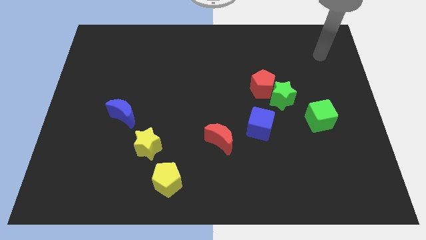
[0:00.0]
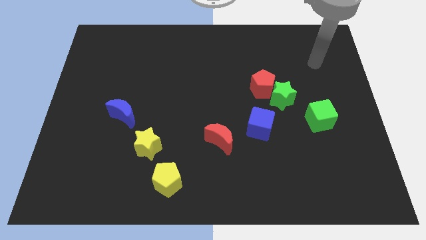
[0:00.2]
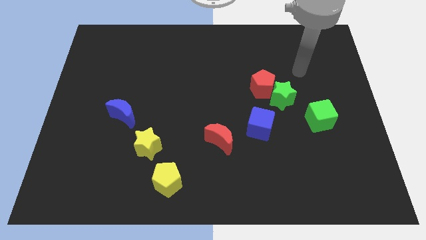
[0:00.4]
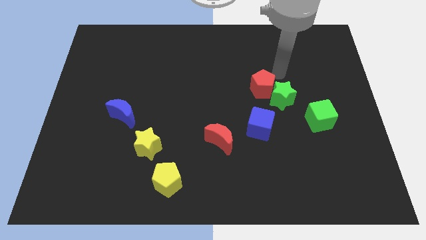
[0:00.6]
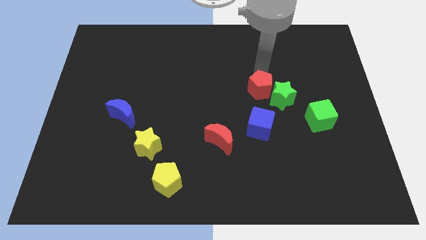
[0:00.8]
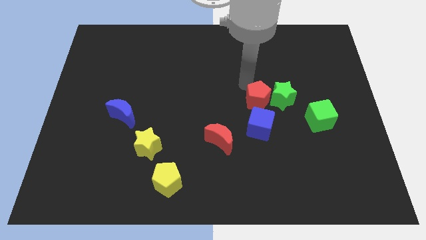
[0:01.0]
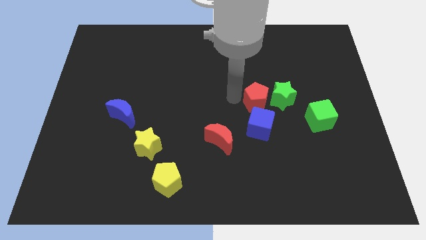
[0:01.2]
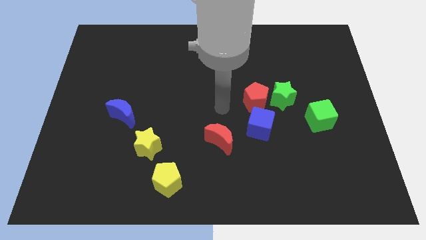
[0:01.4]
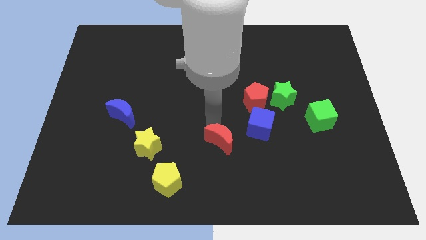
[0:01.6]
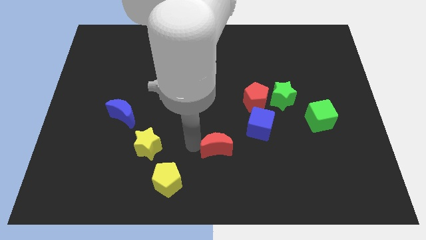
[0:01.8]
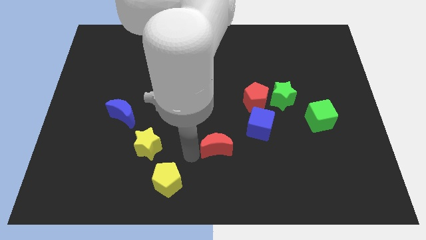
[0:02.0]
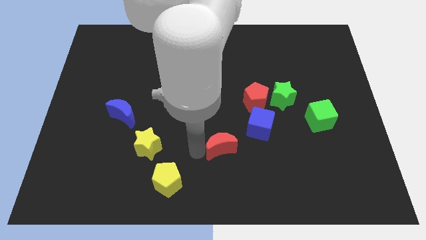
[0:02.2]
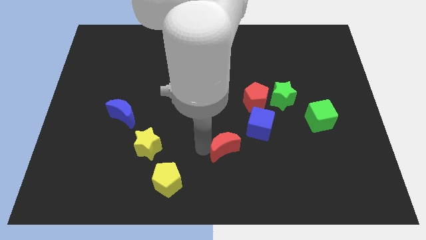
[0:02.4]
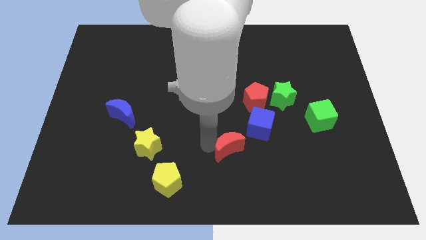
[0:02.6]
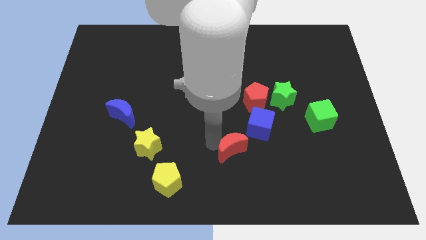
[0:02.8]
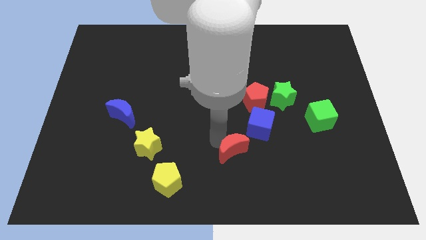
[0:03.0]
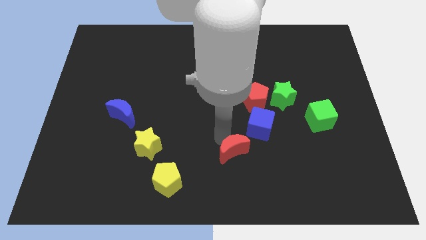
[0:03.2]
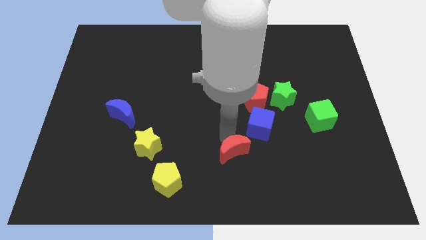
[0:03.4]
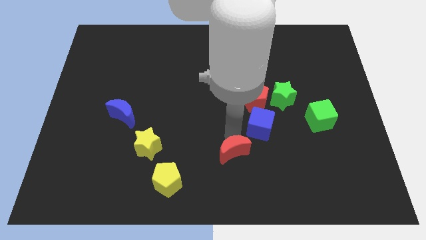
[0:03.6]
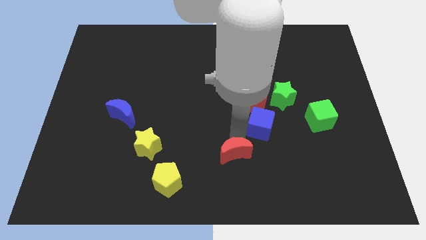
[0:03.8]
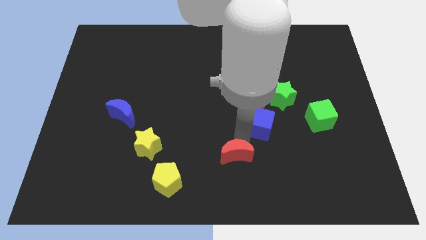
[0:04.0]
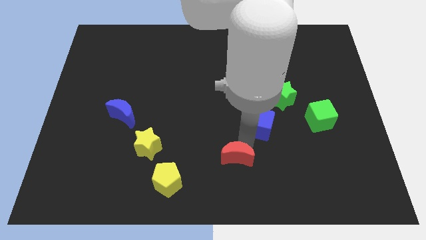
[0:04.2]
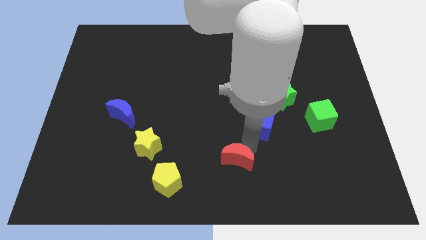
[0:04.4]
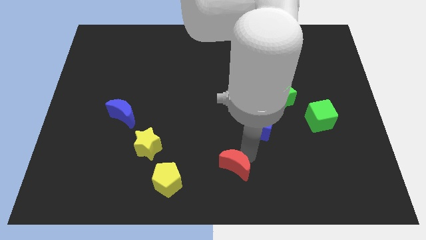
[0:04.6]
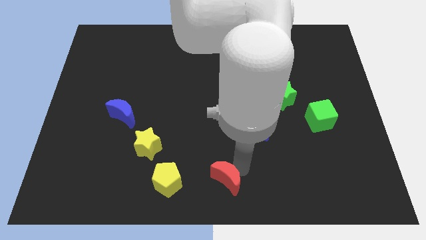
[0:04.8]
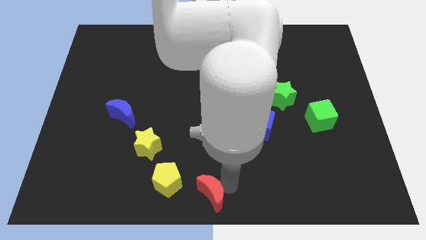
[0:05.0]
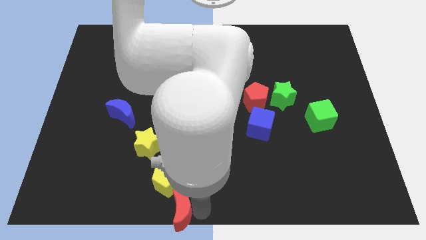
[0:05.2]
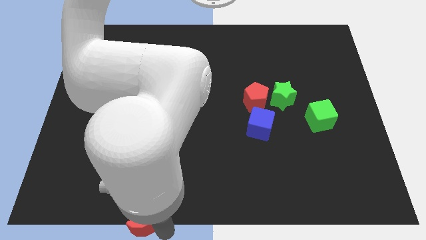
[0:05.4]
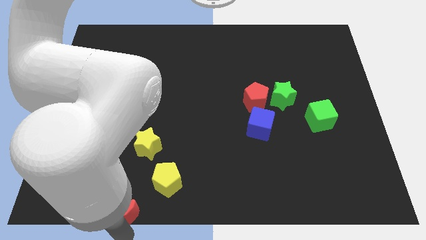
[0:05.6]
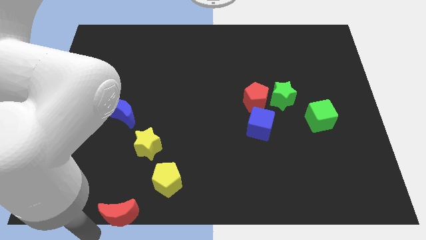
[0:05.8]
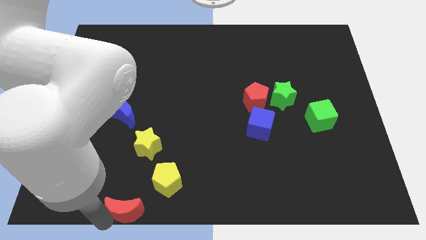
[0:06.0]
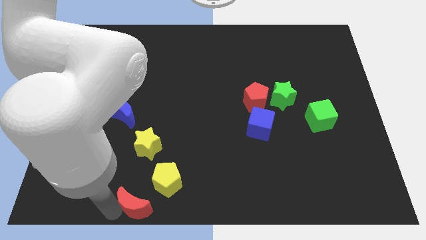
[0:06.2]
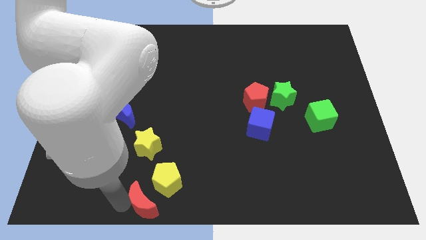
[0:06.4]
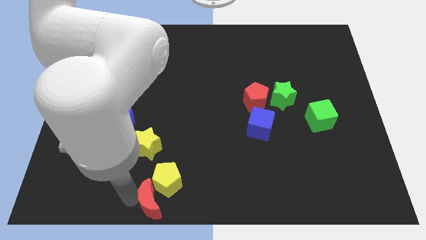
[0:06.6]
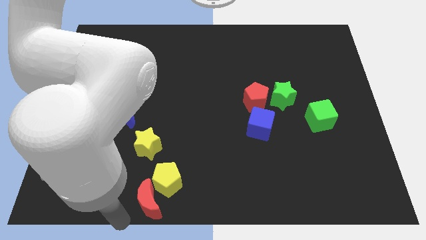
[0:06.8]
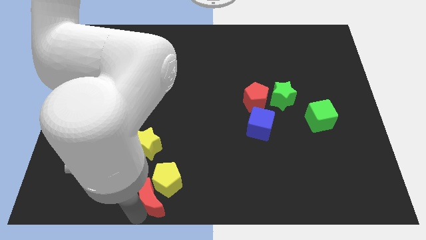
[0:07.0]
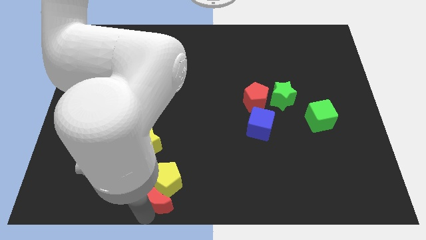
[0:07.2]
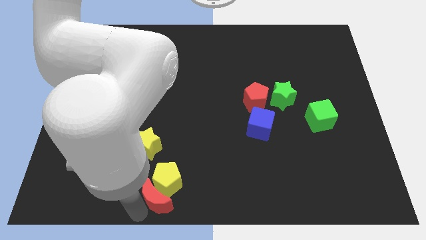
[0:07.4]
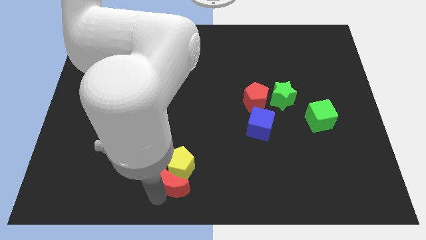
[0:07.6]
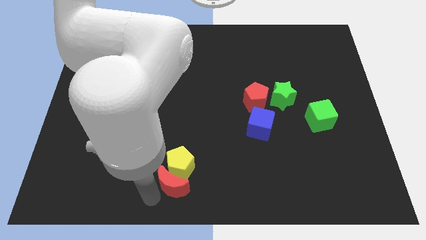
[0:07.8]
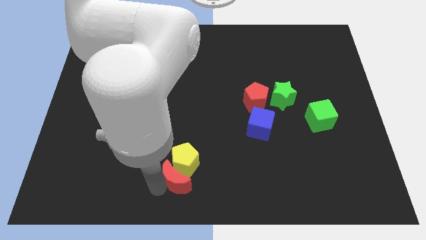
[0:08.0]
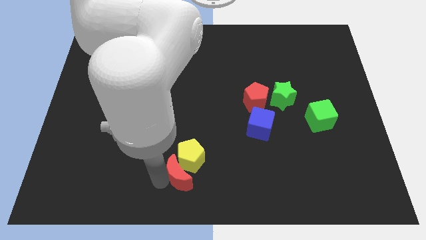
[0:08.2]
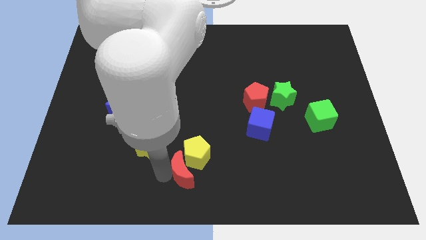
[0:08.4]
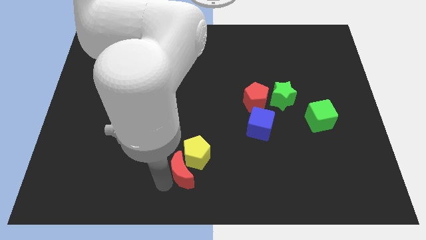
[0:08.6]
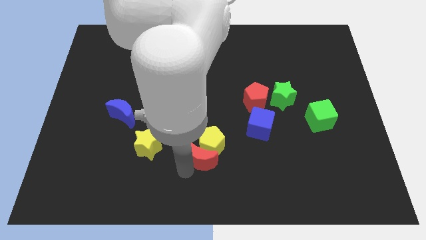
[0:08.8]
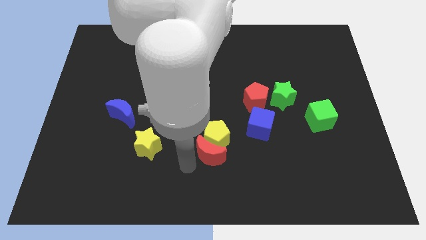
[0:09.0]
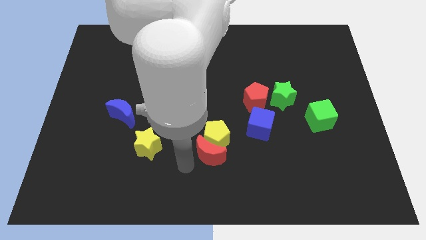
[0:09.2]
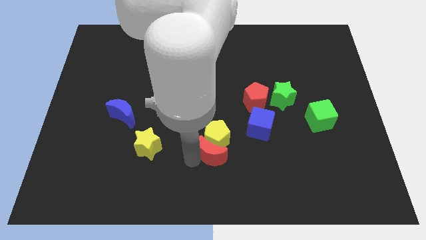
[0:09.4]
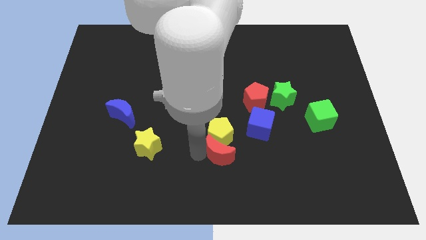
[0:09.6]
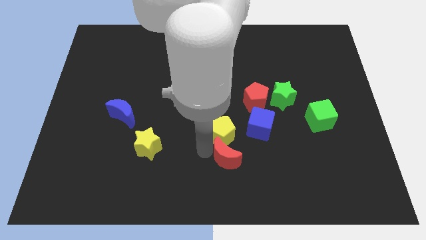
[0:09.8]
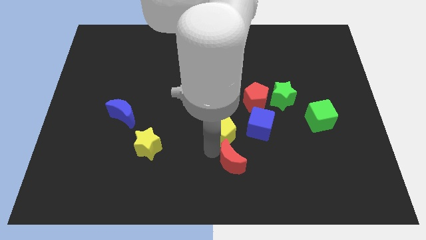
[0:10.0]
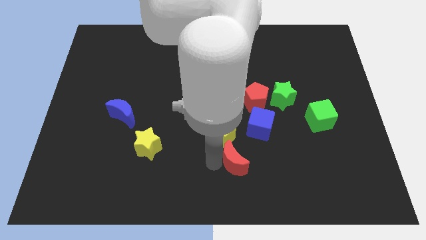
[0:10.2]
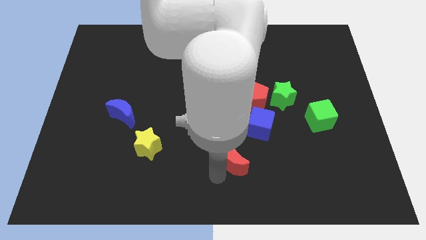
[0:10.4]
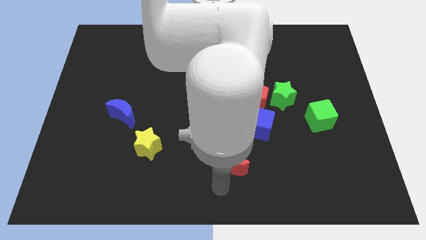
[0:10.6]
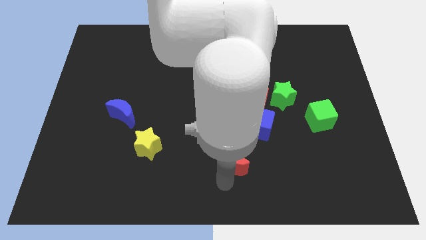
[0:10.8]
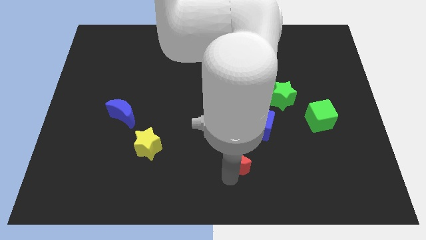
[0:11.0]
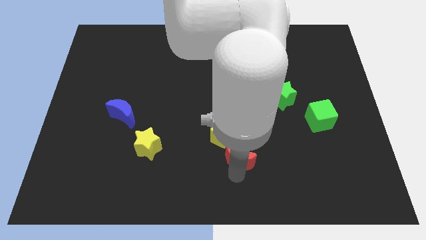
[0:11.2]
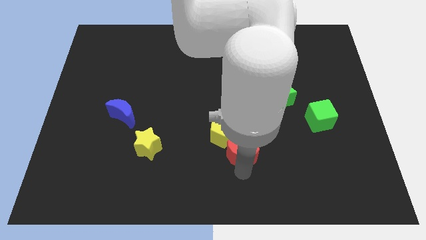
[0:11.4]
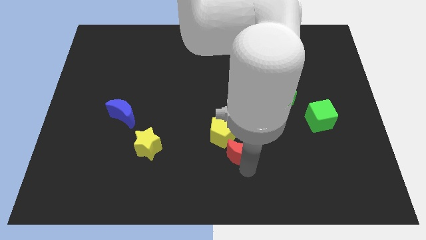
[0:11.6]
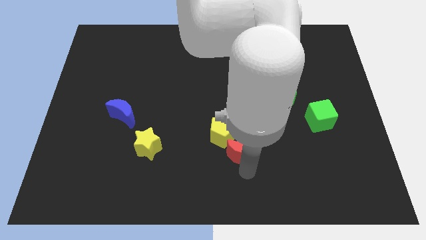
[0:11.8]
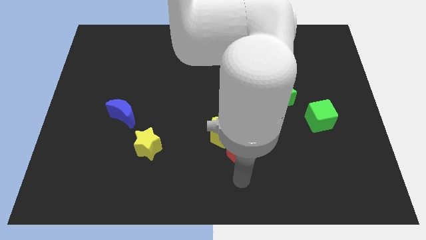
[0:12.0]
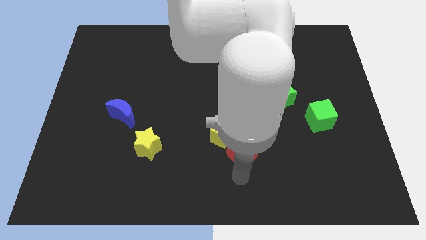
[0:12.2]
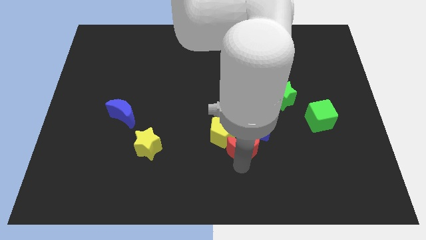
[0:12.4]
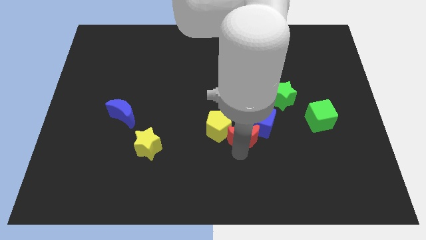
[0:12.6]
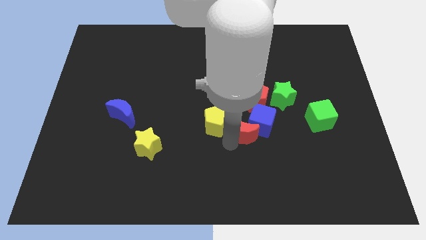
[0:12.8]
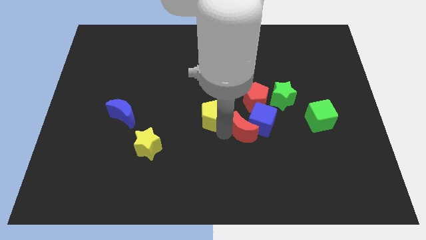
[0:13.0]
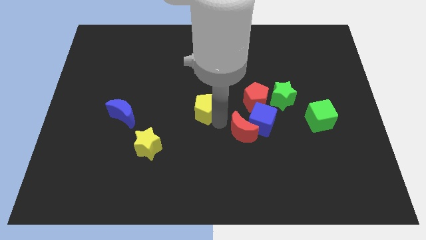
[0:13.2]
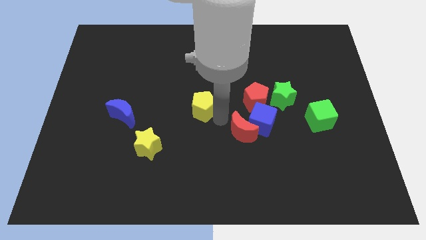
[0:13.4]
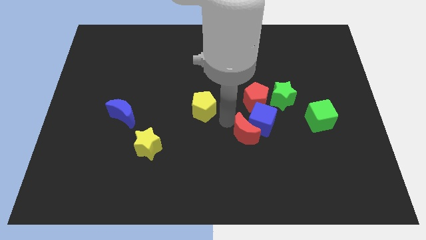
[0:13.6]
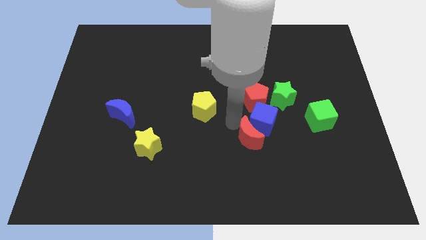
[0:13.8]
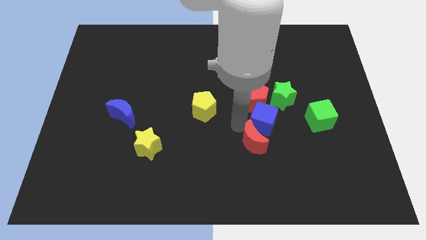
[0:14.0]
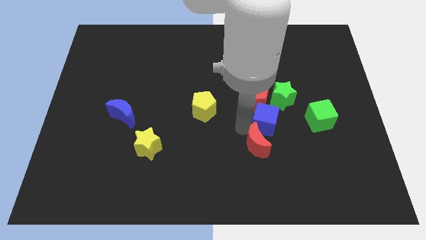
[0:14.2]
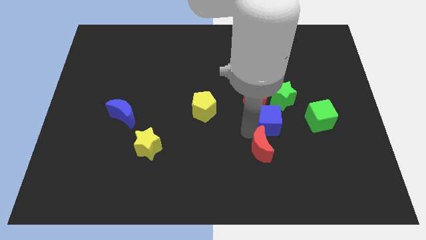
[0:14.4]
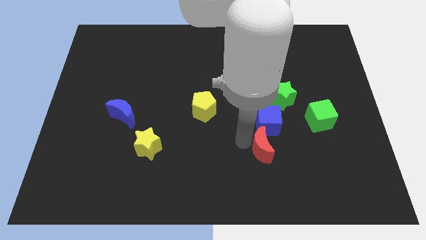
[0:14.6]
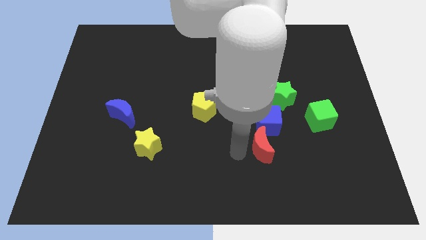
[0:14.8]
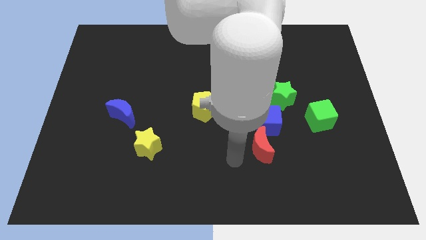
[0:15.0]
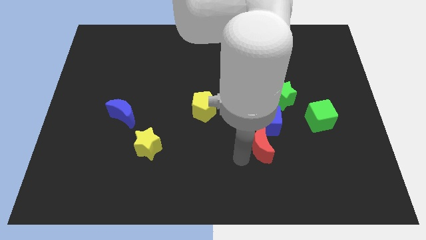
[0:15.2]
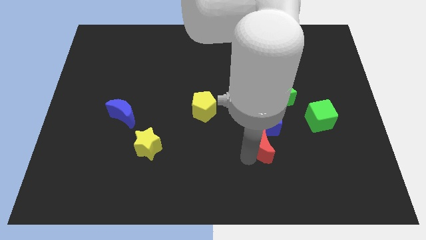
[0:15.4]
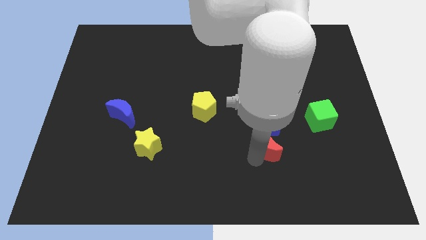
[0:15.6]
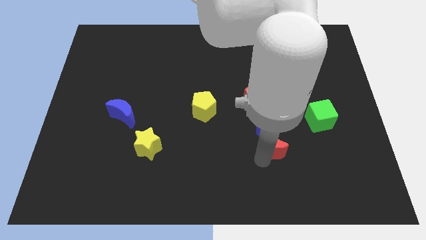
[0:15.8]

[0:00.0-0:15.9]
move the red moon to the bottom of the green star
